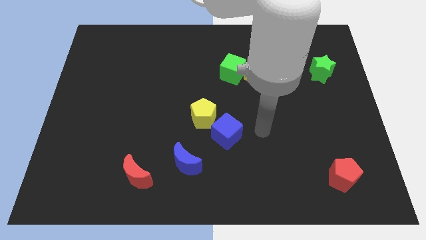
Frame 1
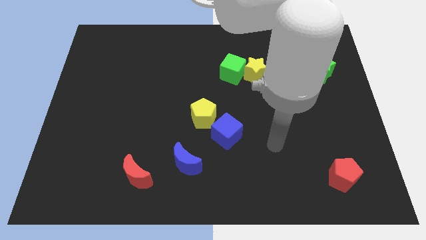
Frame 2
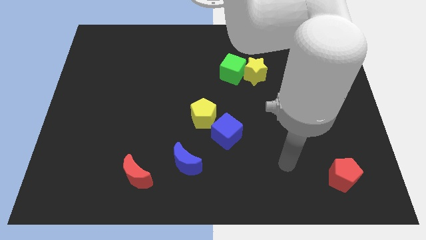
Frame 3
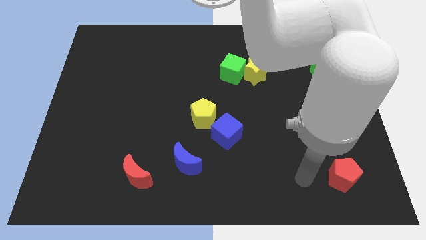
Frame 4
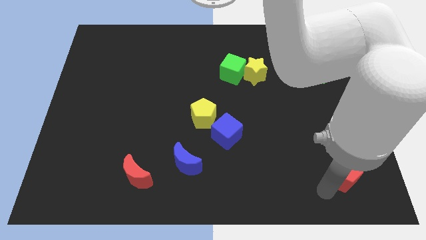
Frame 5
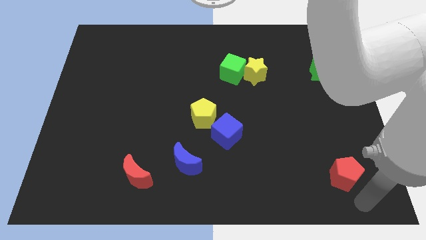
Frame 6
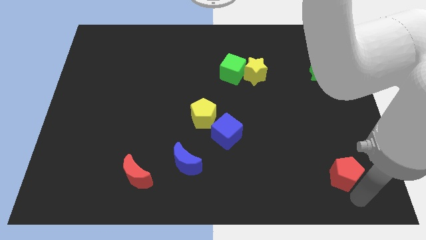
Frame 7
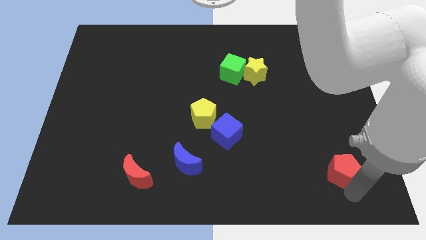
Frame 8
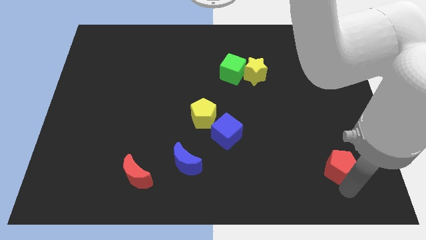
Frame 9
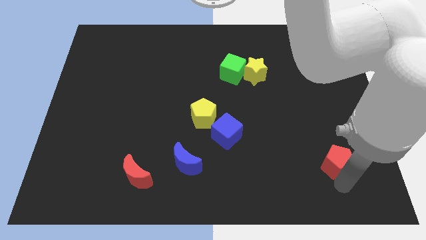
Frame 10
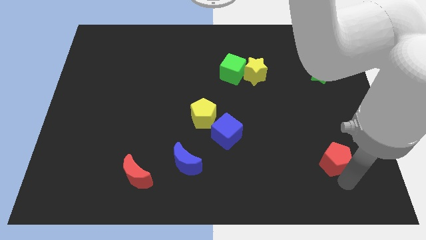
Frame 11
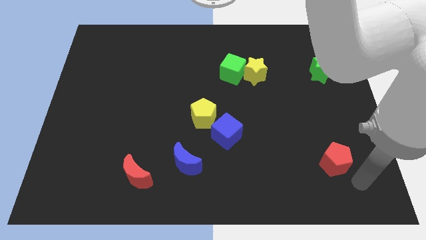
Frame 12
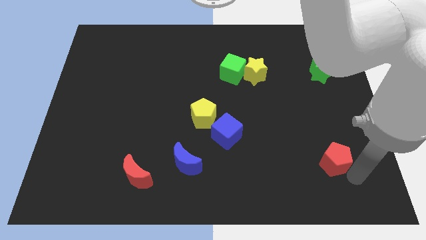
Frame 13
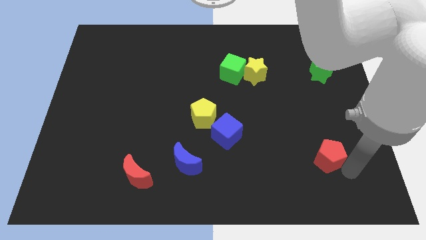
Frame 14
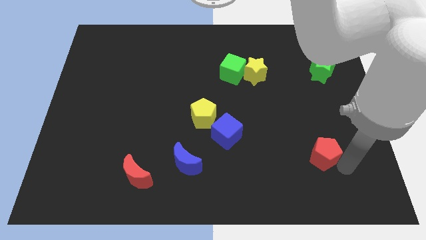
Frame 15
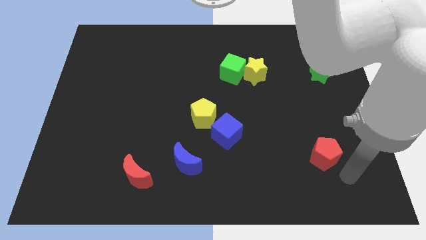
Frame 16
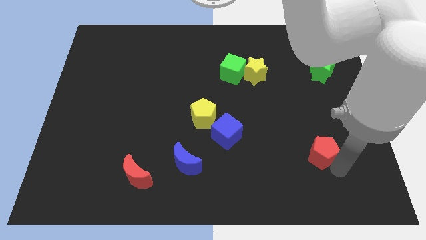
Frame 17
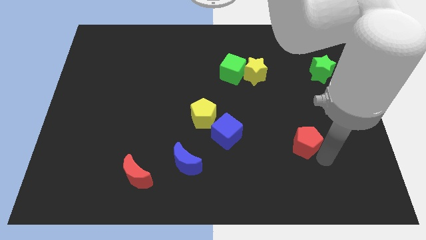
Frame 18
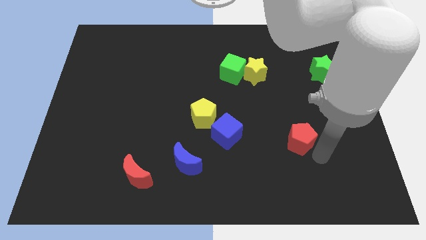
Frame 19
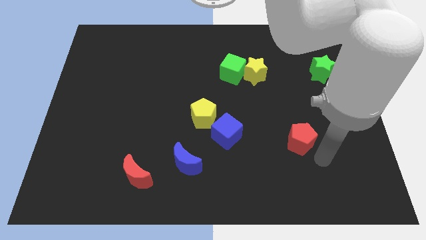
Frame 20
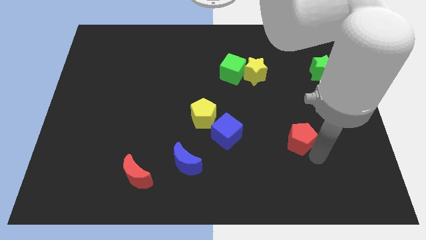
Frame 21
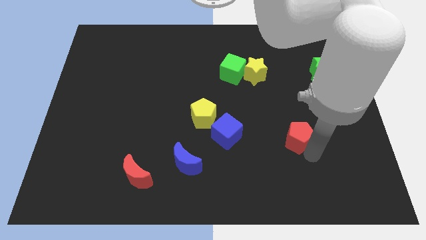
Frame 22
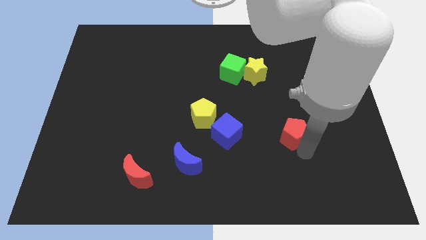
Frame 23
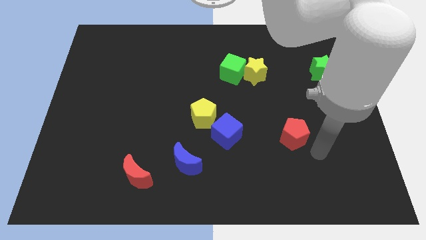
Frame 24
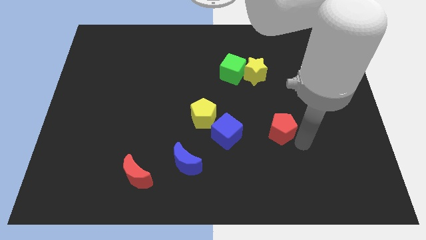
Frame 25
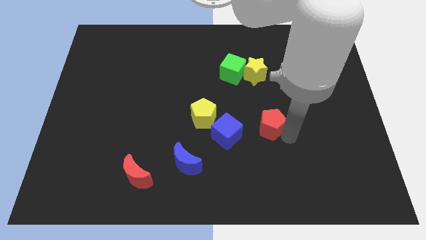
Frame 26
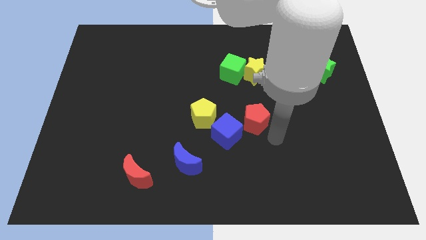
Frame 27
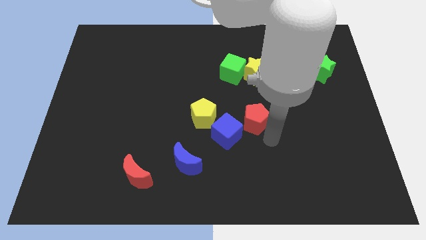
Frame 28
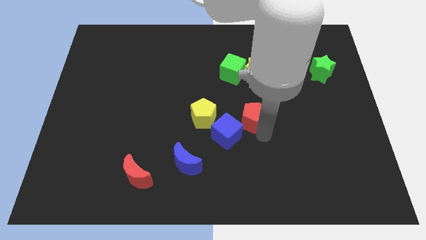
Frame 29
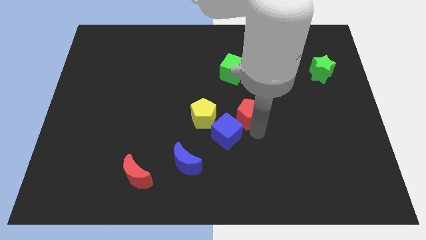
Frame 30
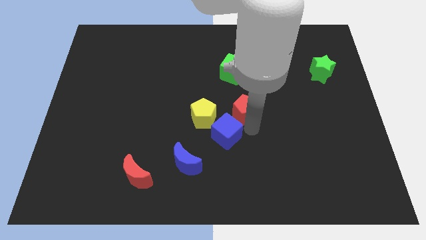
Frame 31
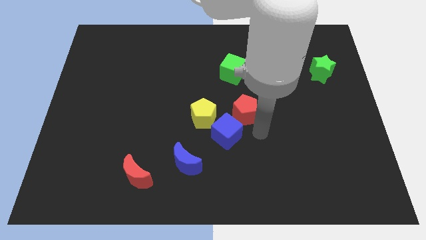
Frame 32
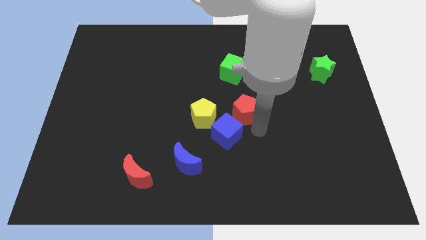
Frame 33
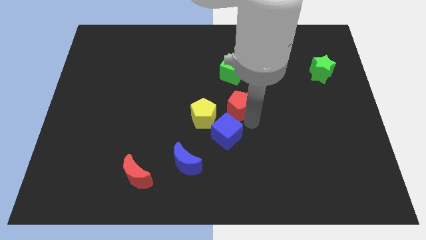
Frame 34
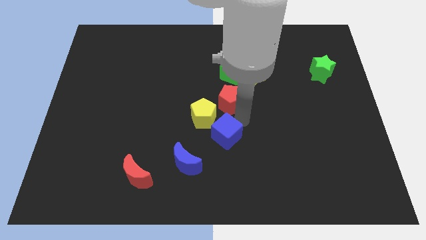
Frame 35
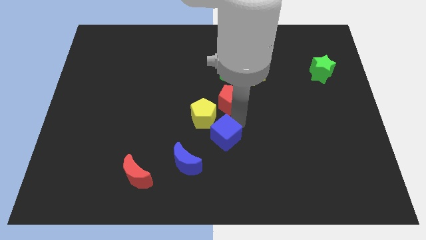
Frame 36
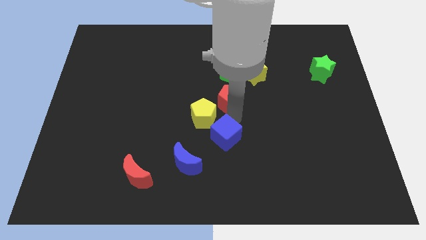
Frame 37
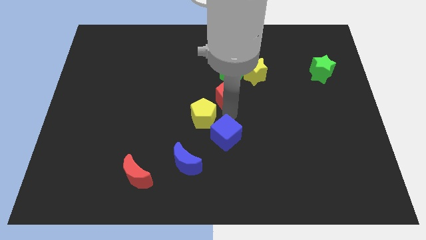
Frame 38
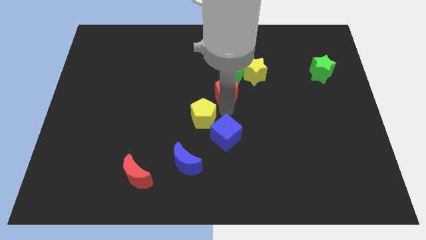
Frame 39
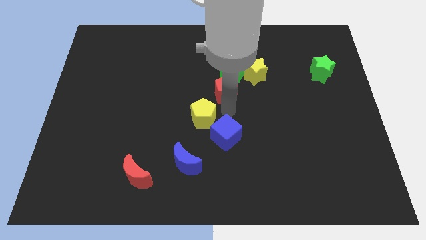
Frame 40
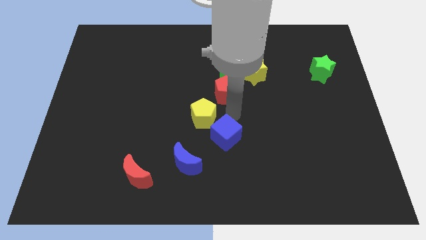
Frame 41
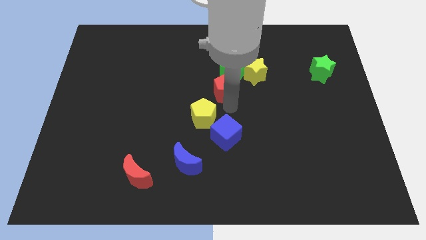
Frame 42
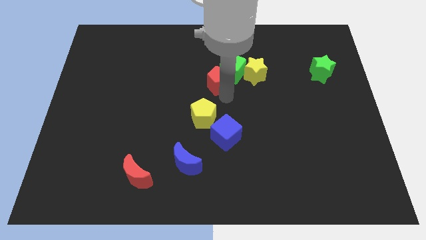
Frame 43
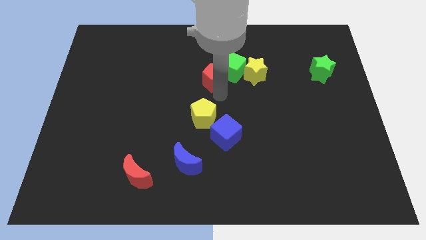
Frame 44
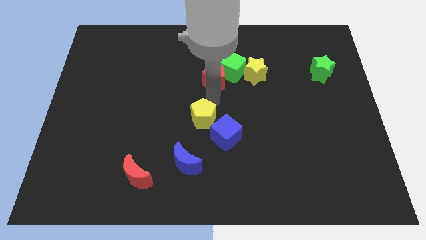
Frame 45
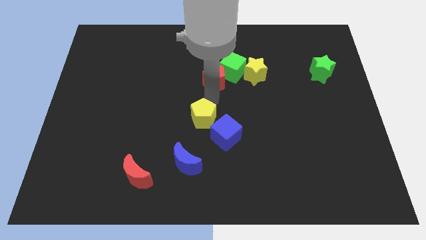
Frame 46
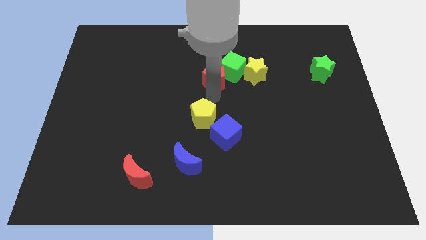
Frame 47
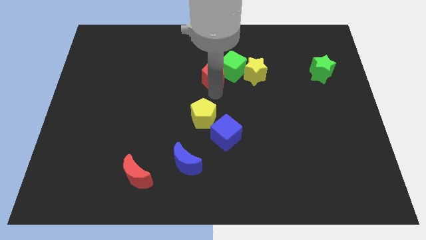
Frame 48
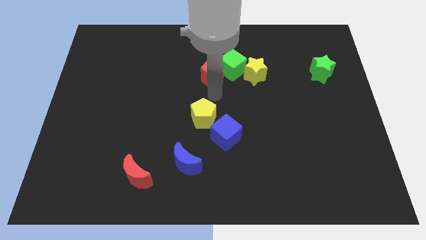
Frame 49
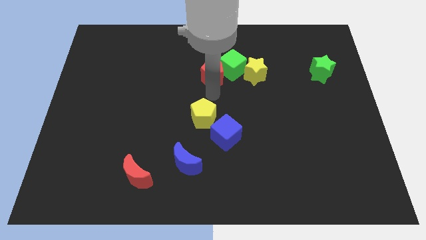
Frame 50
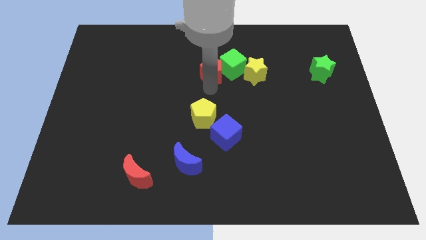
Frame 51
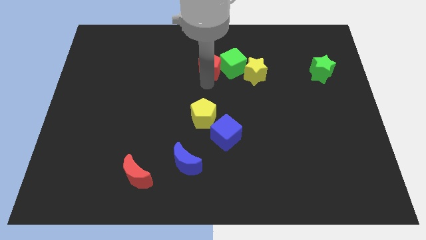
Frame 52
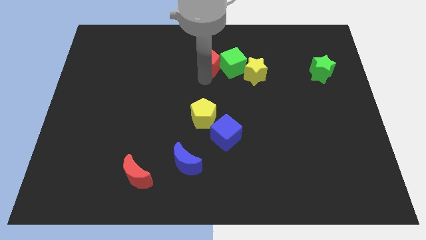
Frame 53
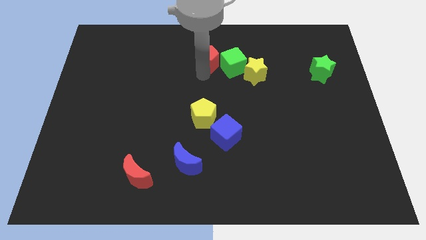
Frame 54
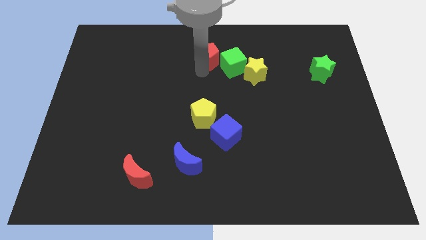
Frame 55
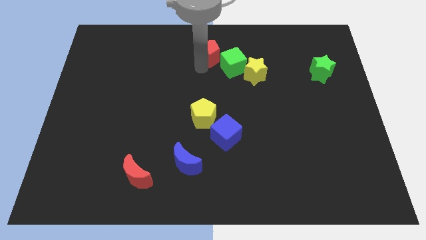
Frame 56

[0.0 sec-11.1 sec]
push the red pentagon to the top
